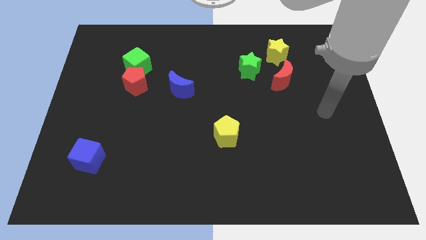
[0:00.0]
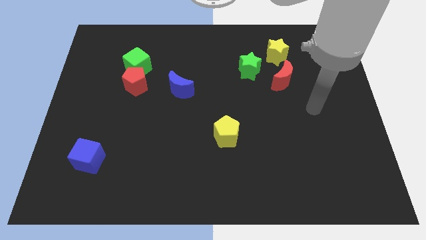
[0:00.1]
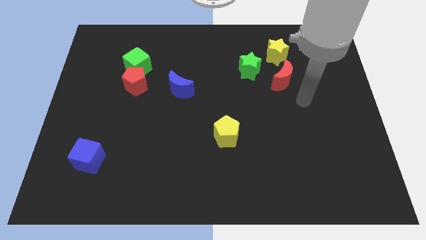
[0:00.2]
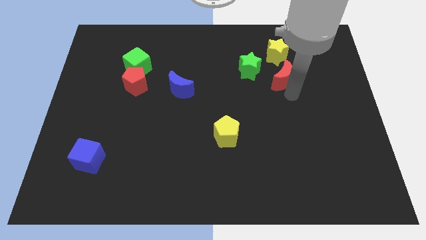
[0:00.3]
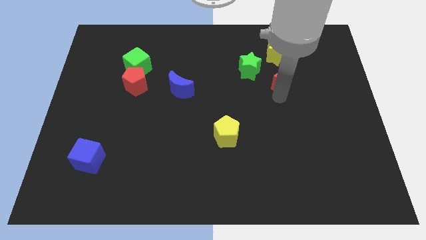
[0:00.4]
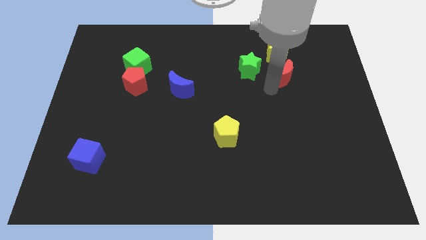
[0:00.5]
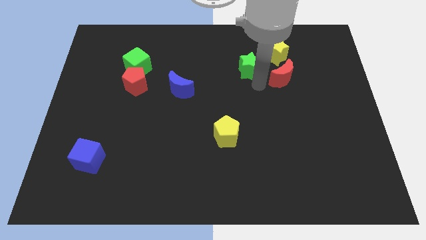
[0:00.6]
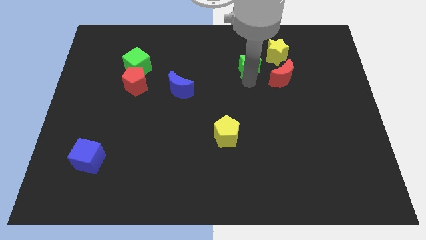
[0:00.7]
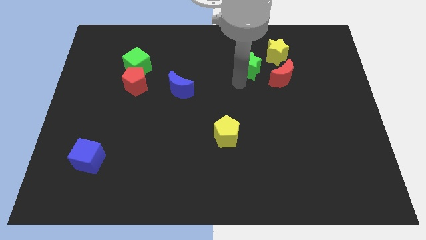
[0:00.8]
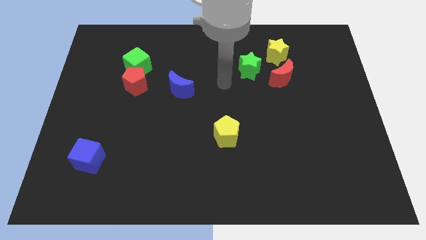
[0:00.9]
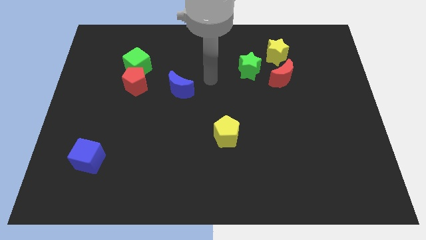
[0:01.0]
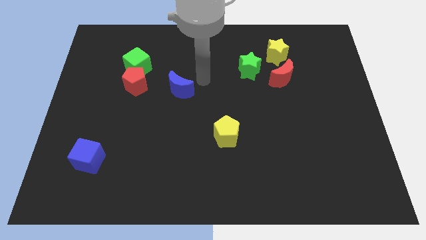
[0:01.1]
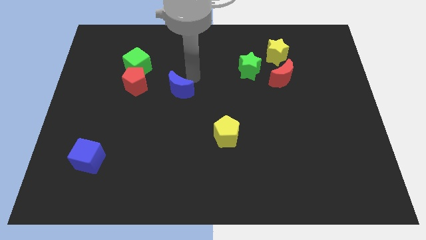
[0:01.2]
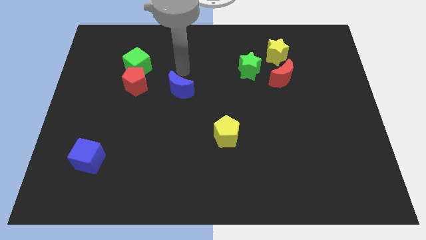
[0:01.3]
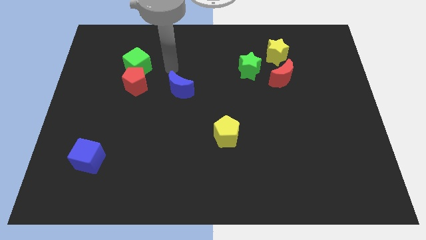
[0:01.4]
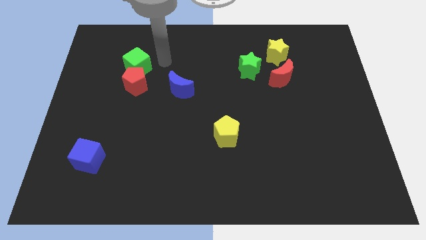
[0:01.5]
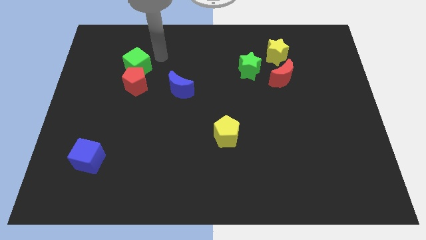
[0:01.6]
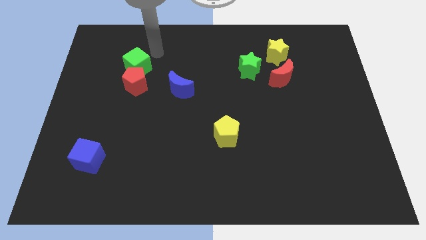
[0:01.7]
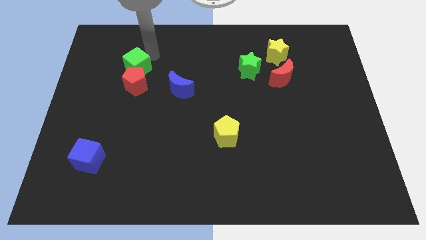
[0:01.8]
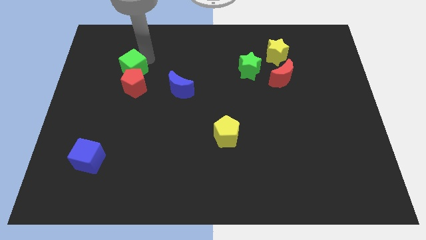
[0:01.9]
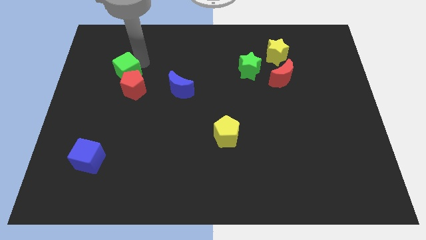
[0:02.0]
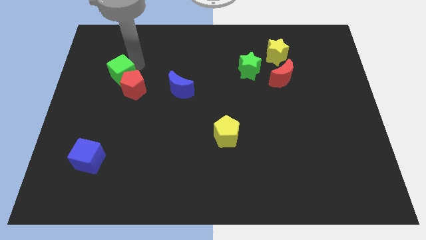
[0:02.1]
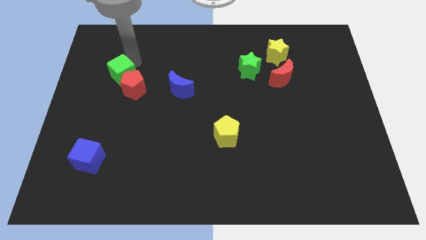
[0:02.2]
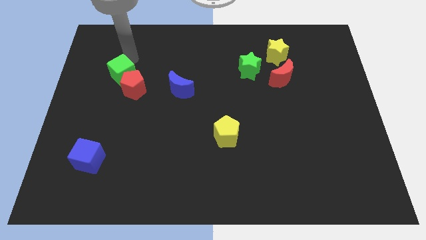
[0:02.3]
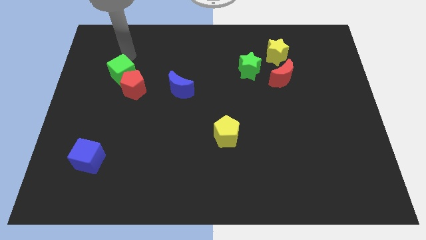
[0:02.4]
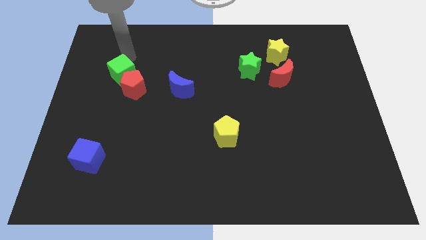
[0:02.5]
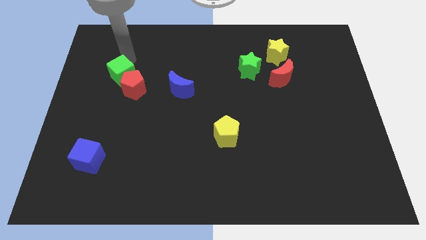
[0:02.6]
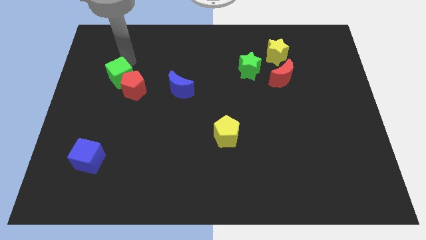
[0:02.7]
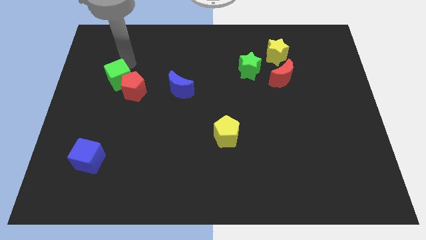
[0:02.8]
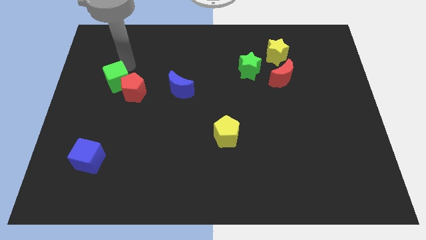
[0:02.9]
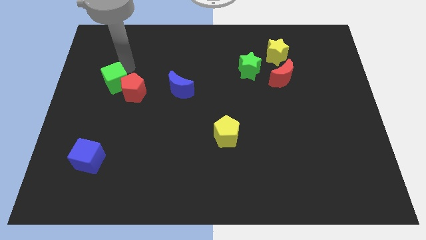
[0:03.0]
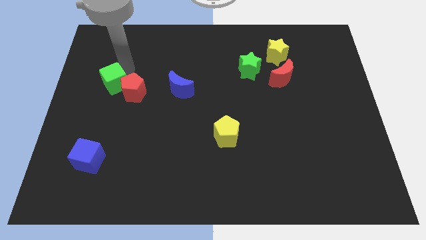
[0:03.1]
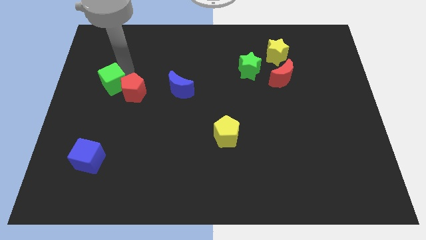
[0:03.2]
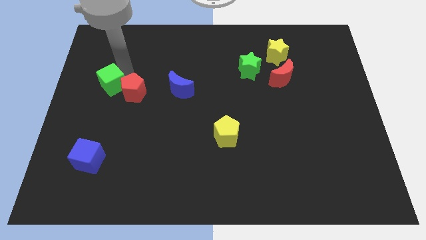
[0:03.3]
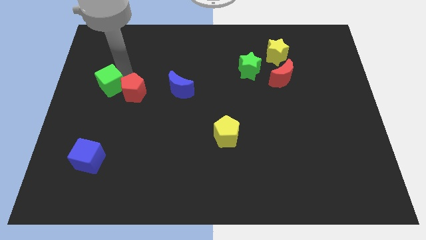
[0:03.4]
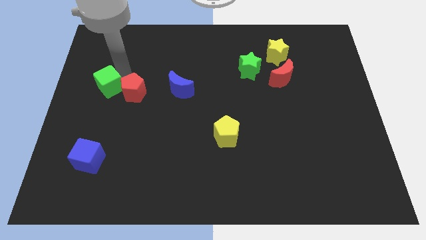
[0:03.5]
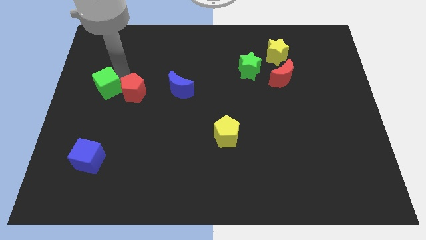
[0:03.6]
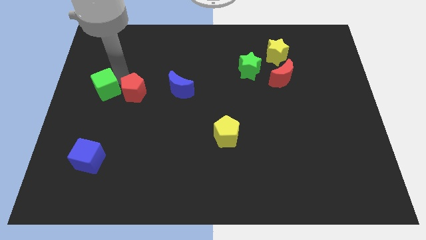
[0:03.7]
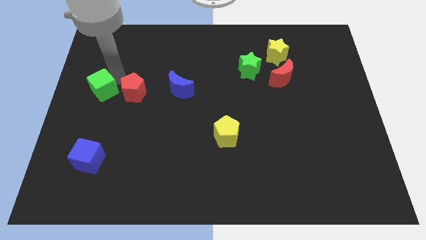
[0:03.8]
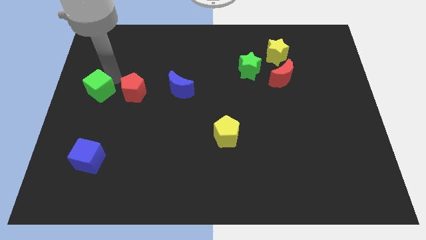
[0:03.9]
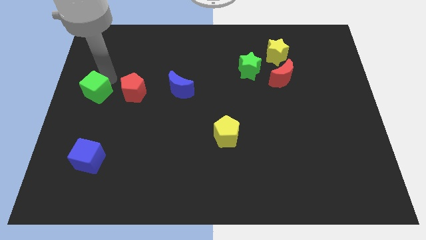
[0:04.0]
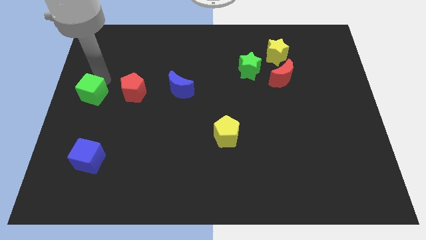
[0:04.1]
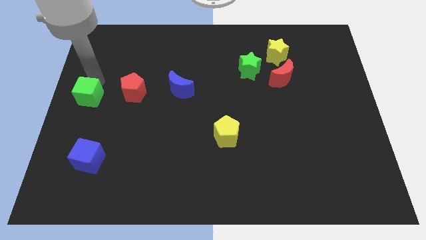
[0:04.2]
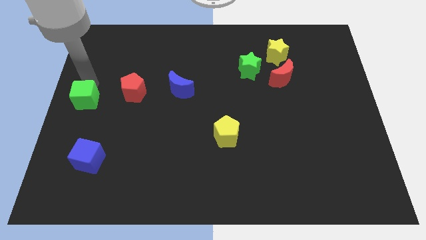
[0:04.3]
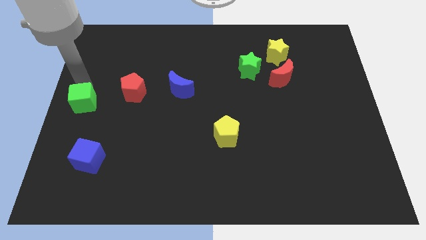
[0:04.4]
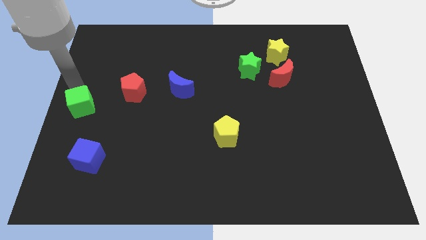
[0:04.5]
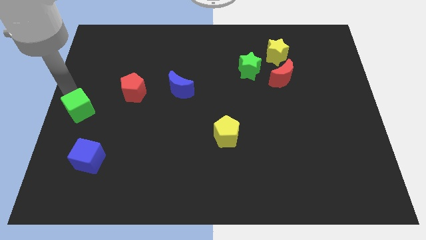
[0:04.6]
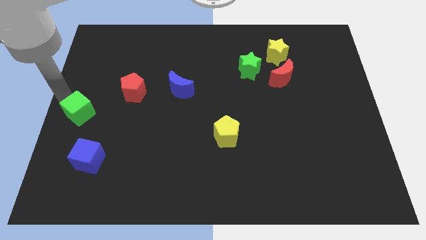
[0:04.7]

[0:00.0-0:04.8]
slightly push the green cube down

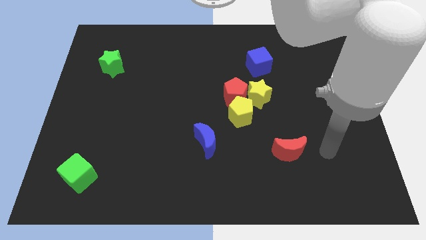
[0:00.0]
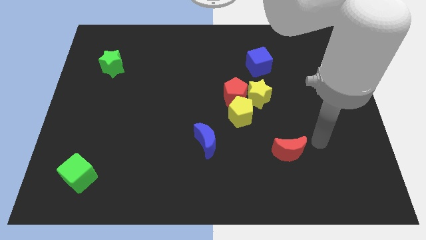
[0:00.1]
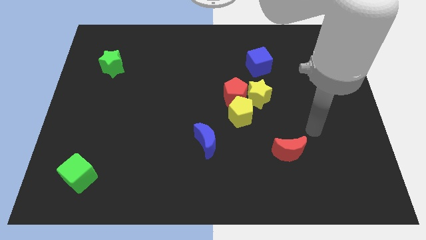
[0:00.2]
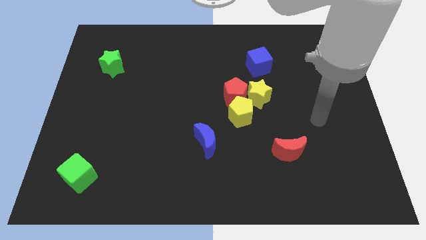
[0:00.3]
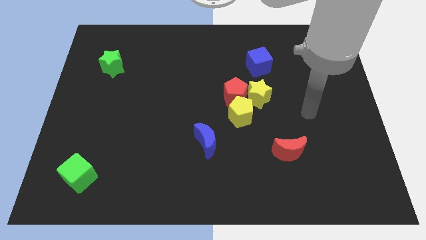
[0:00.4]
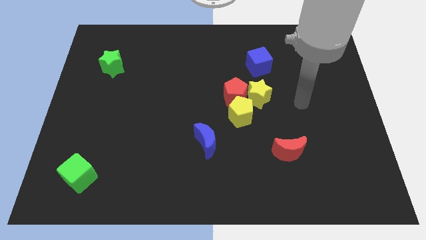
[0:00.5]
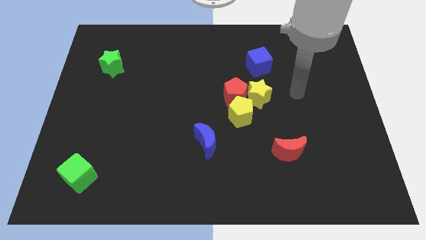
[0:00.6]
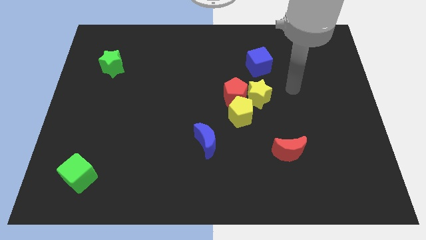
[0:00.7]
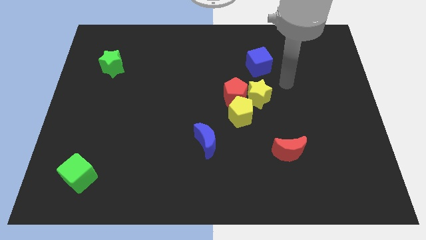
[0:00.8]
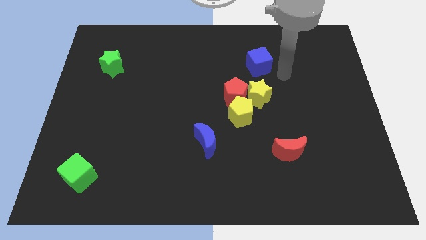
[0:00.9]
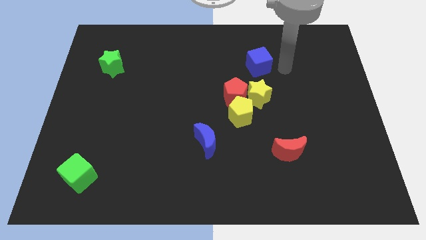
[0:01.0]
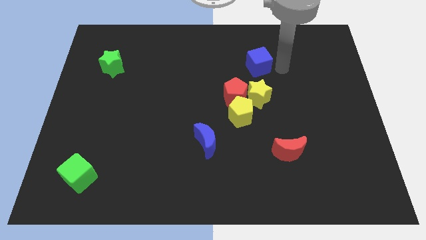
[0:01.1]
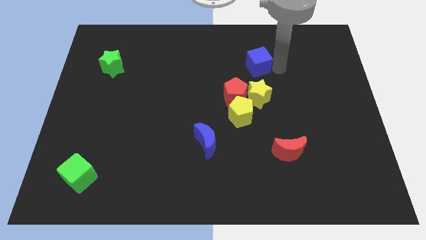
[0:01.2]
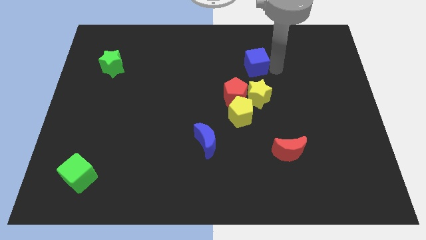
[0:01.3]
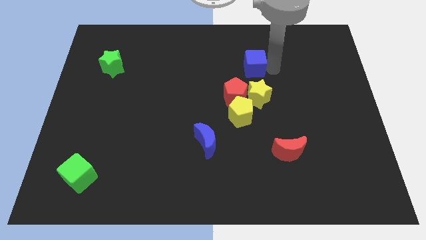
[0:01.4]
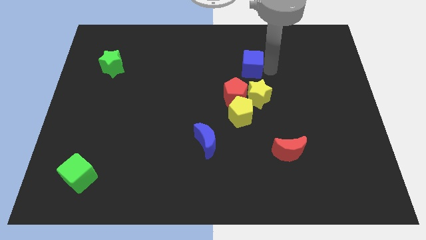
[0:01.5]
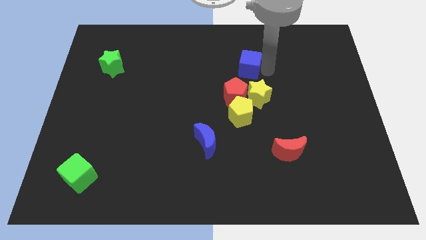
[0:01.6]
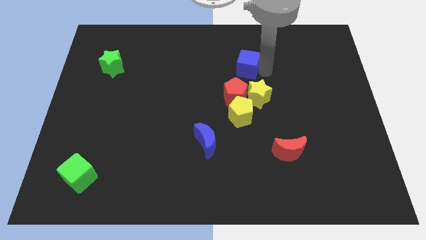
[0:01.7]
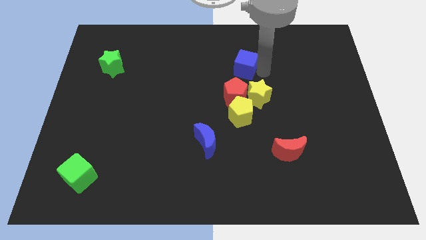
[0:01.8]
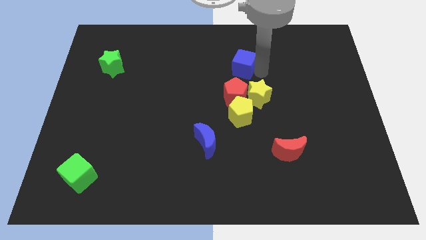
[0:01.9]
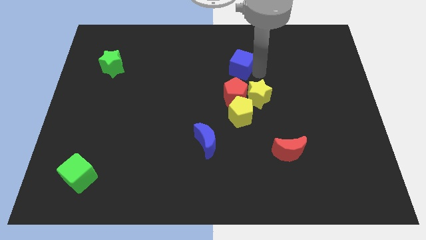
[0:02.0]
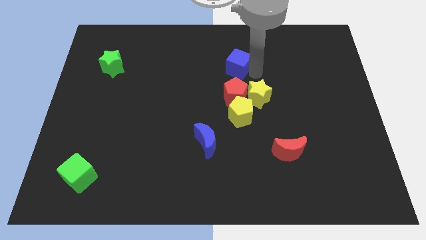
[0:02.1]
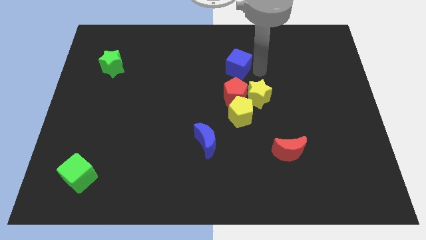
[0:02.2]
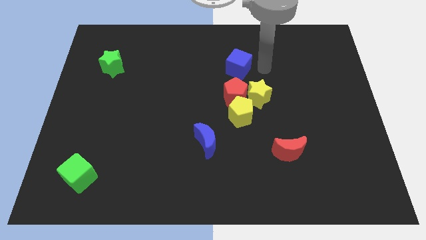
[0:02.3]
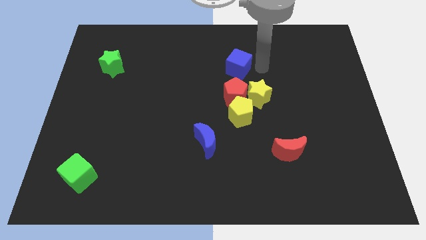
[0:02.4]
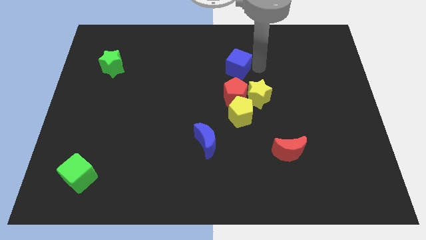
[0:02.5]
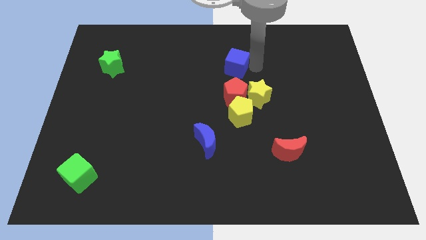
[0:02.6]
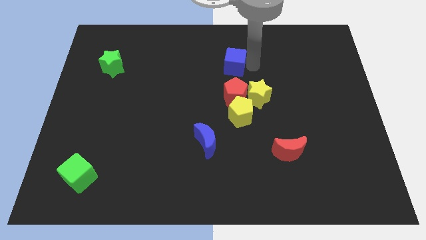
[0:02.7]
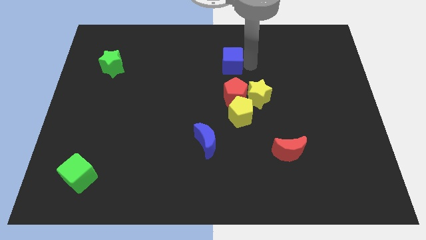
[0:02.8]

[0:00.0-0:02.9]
slightly move the blue cube left

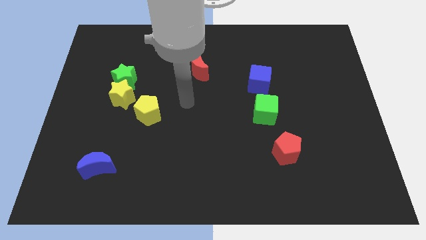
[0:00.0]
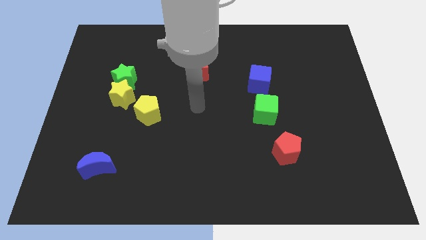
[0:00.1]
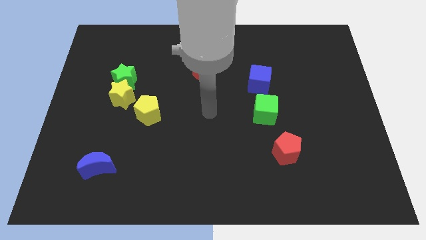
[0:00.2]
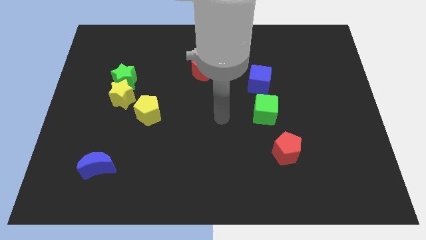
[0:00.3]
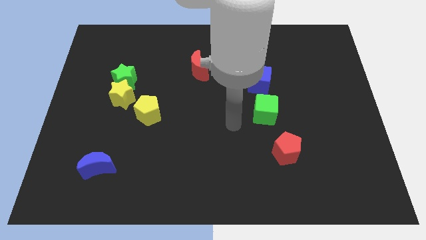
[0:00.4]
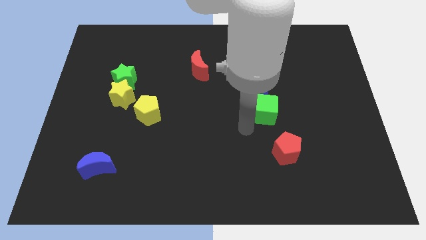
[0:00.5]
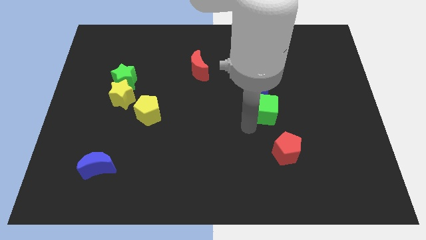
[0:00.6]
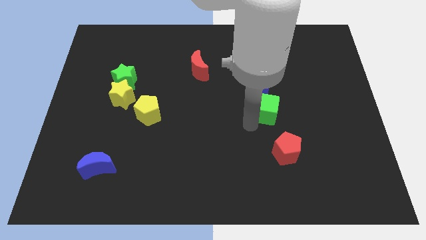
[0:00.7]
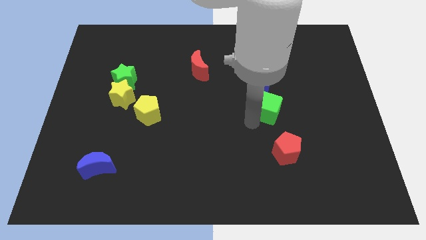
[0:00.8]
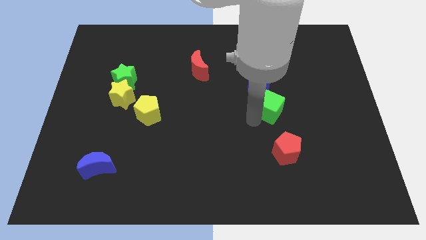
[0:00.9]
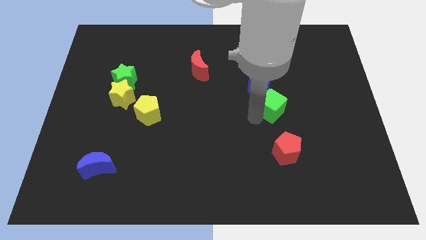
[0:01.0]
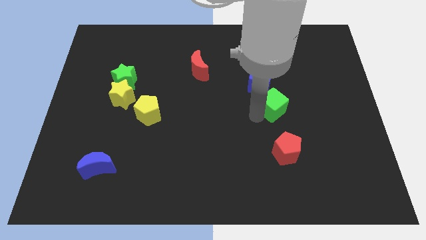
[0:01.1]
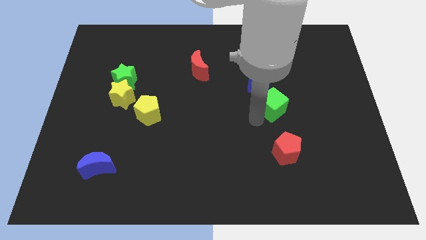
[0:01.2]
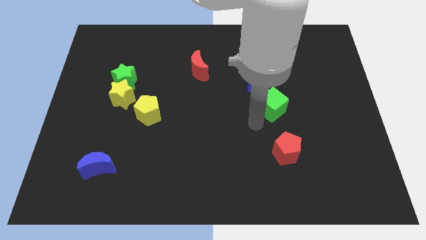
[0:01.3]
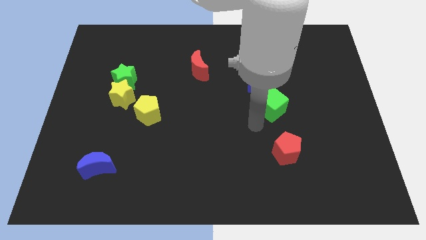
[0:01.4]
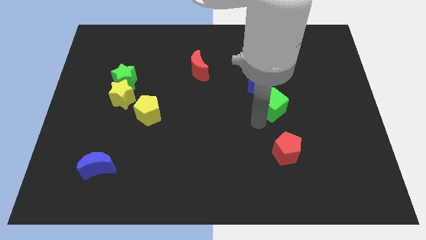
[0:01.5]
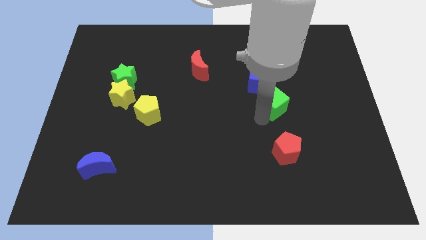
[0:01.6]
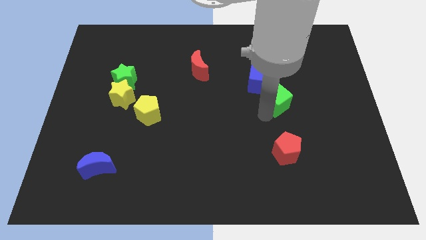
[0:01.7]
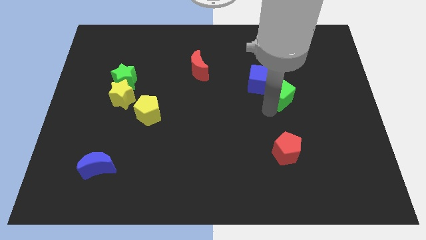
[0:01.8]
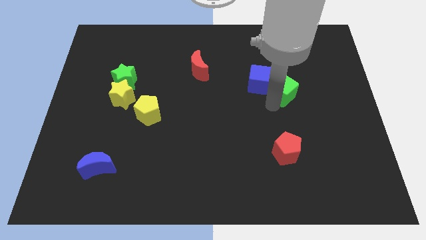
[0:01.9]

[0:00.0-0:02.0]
slide the green cube a little up and then to the right
